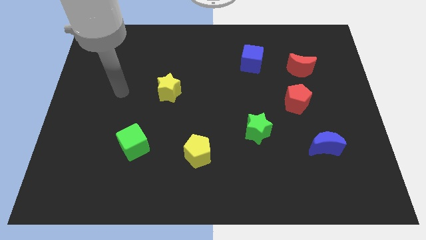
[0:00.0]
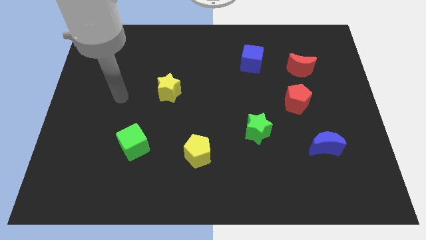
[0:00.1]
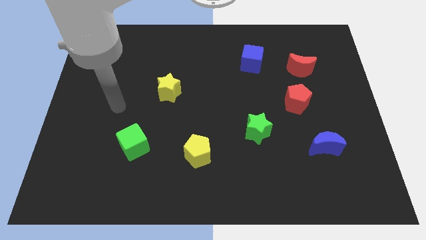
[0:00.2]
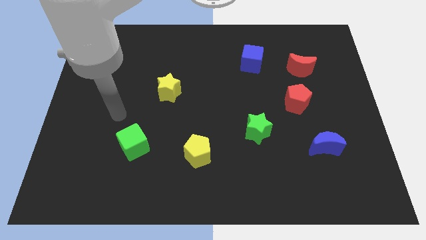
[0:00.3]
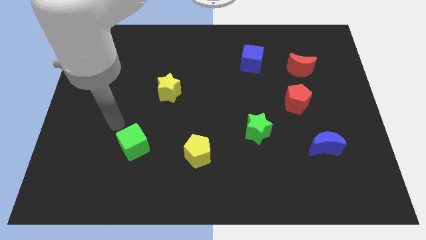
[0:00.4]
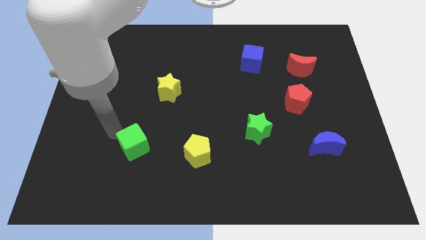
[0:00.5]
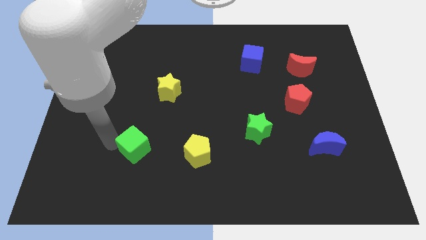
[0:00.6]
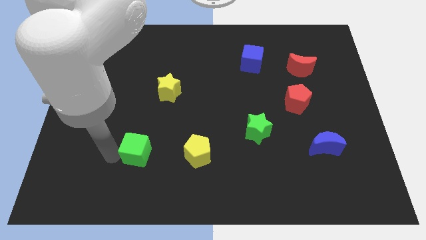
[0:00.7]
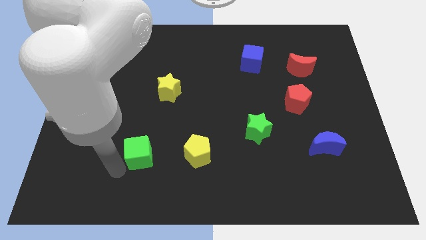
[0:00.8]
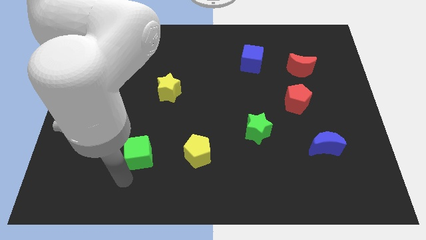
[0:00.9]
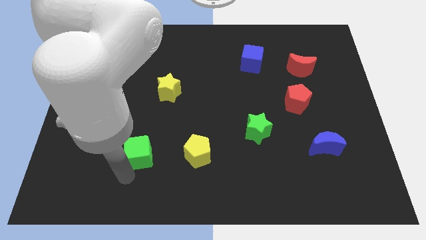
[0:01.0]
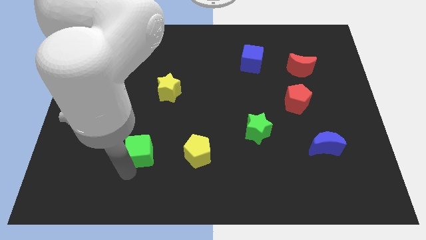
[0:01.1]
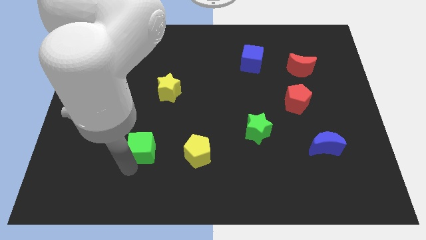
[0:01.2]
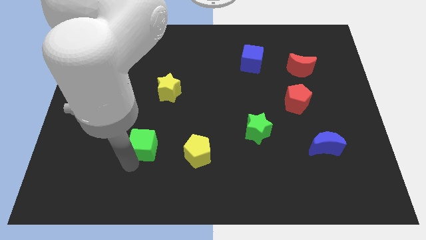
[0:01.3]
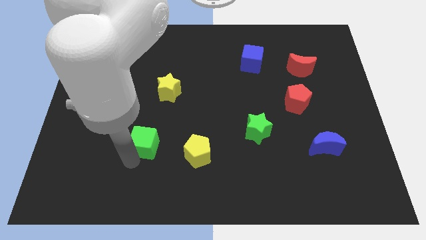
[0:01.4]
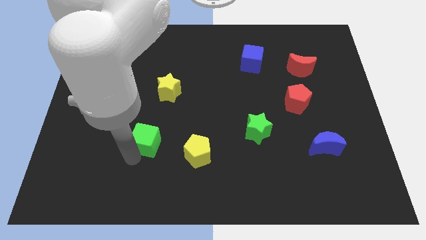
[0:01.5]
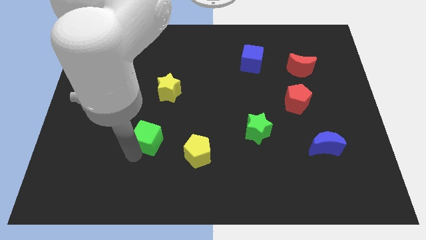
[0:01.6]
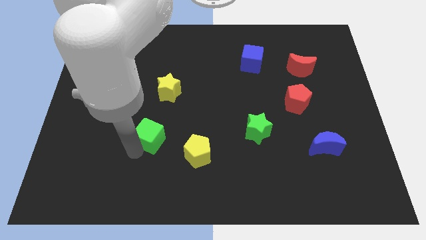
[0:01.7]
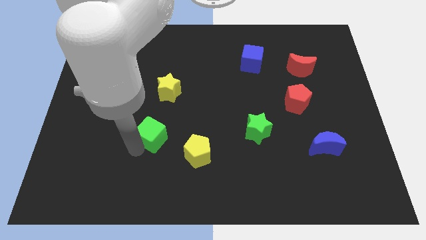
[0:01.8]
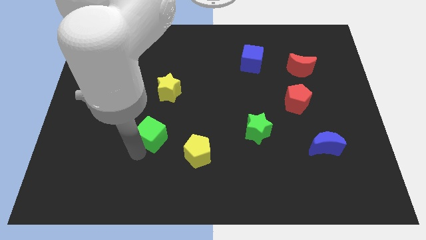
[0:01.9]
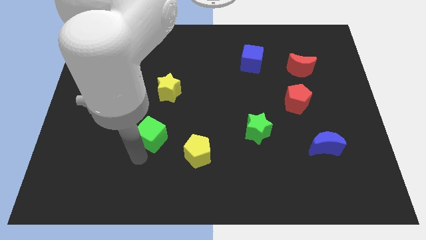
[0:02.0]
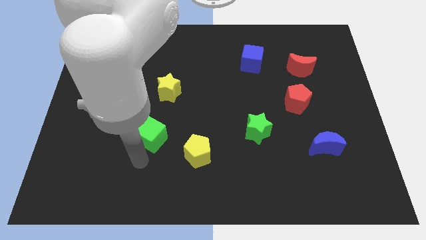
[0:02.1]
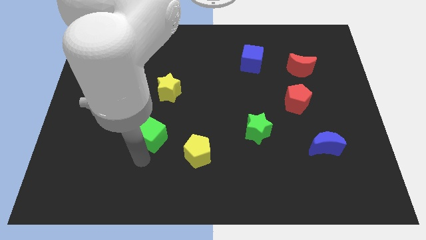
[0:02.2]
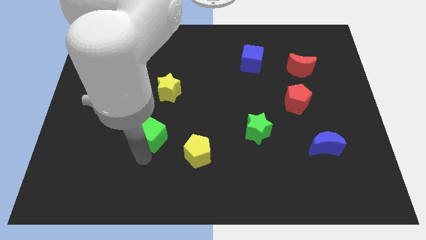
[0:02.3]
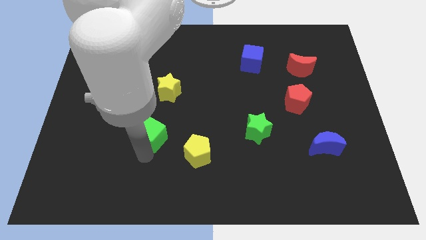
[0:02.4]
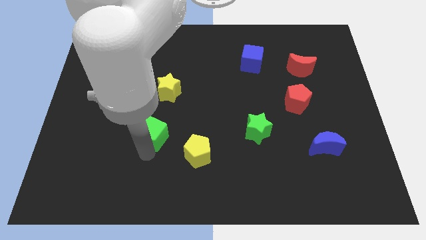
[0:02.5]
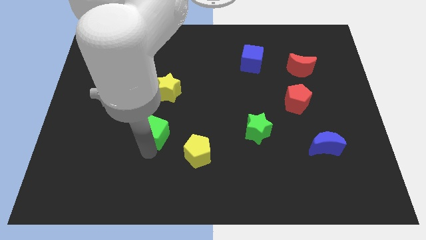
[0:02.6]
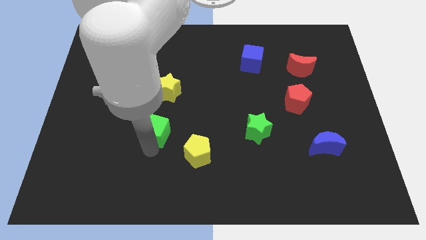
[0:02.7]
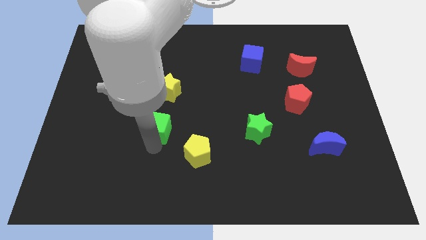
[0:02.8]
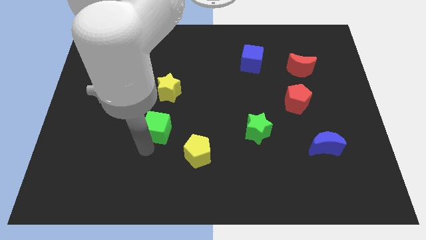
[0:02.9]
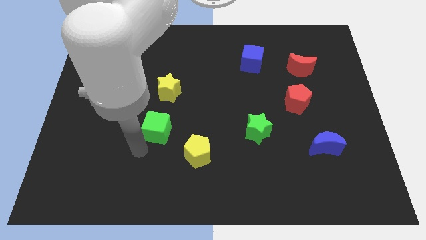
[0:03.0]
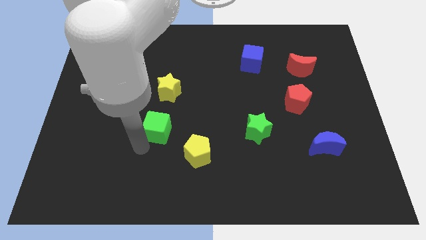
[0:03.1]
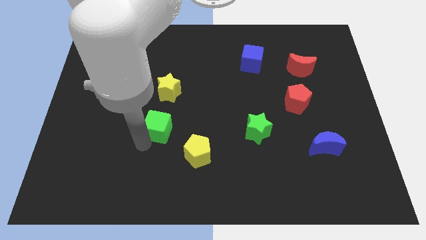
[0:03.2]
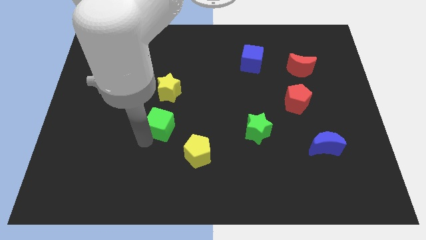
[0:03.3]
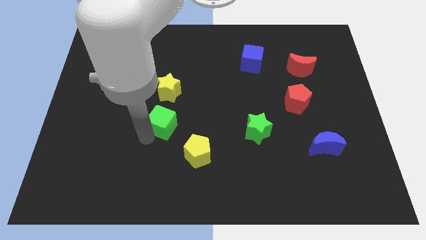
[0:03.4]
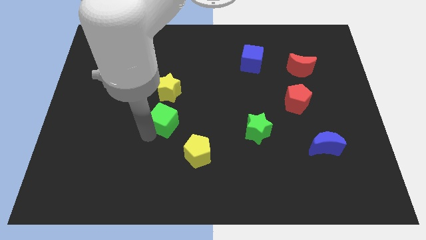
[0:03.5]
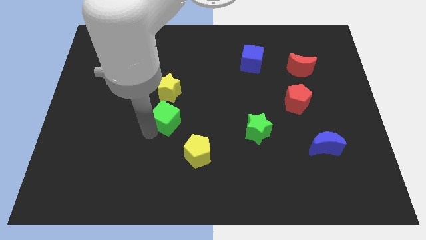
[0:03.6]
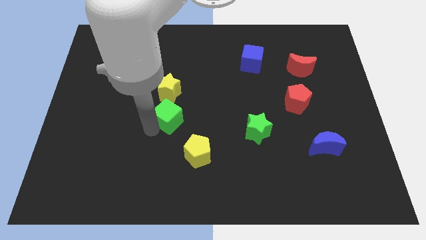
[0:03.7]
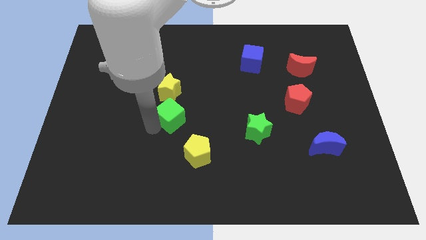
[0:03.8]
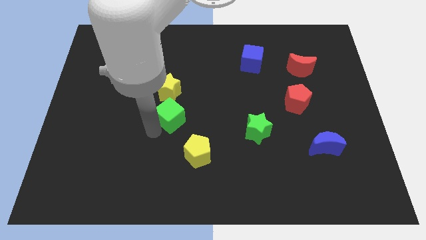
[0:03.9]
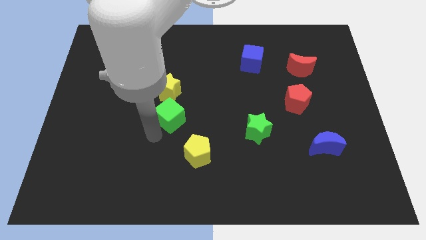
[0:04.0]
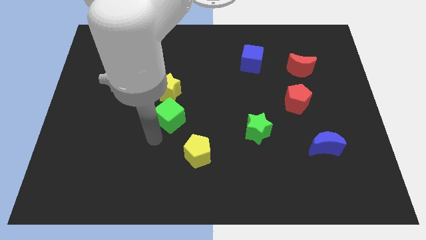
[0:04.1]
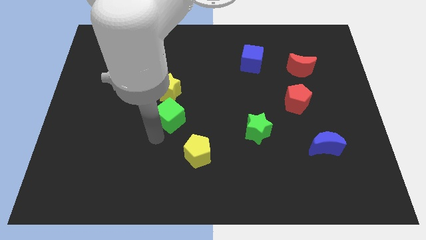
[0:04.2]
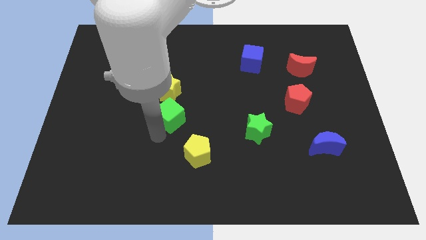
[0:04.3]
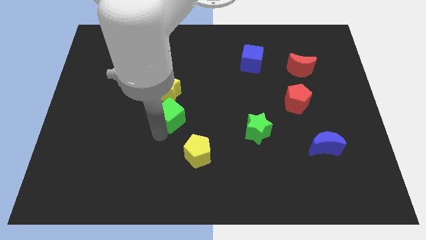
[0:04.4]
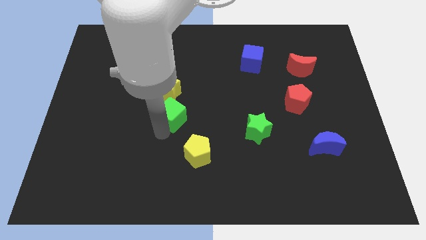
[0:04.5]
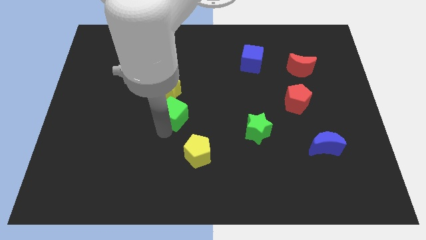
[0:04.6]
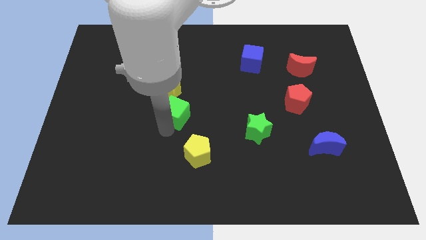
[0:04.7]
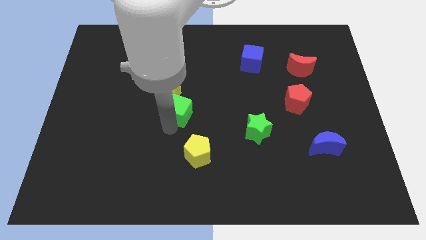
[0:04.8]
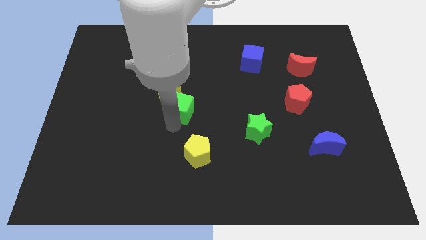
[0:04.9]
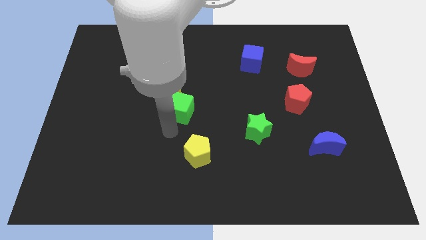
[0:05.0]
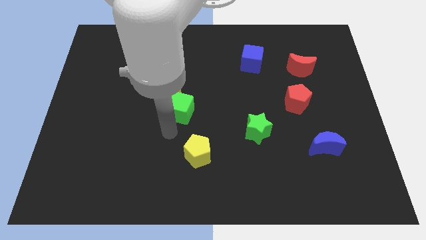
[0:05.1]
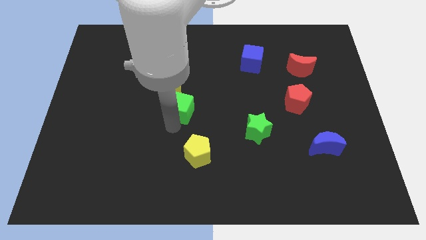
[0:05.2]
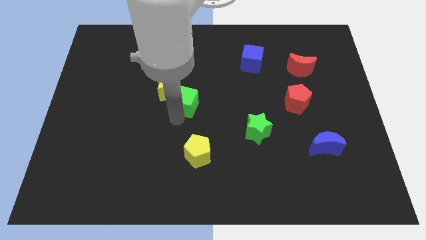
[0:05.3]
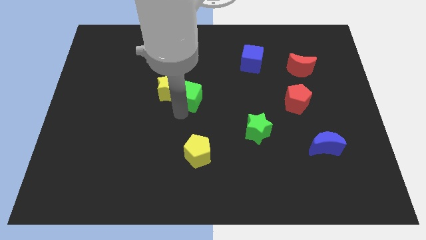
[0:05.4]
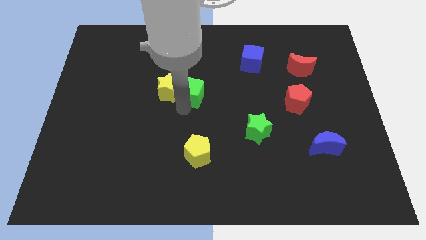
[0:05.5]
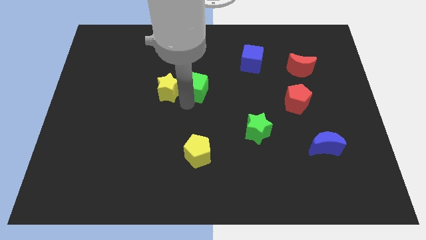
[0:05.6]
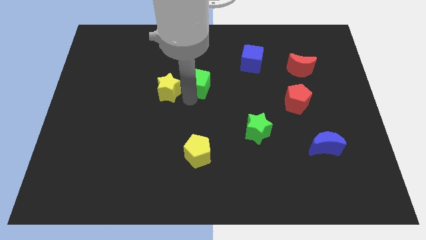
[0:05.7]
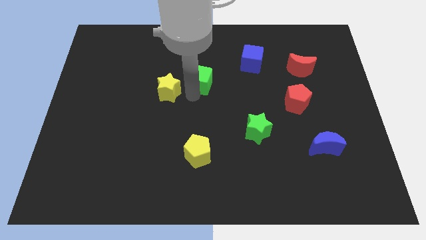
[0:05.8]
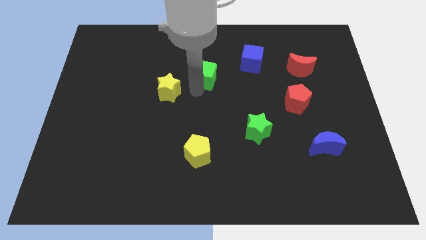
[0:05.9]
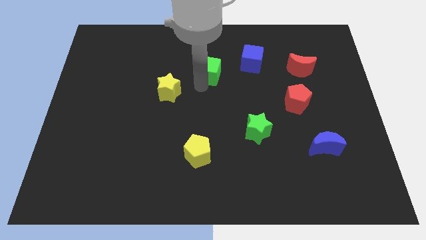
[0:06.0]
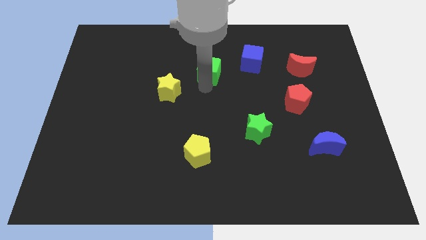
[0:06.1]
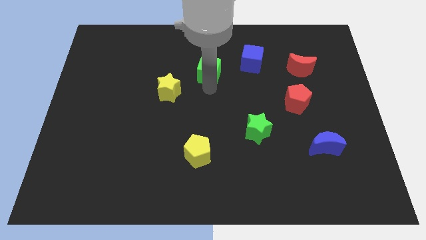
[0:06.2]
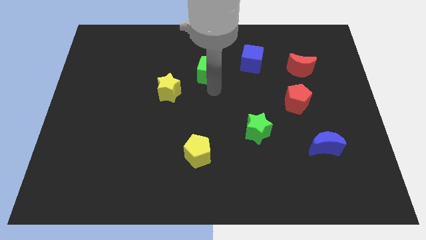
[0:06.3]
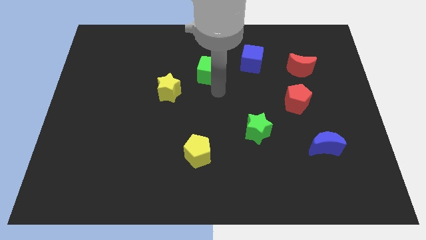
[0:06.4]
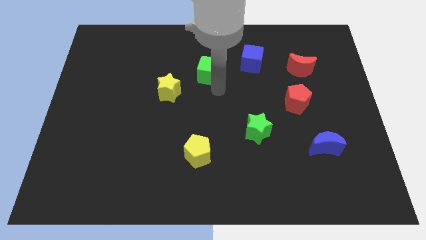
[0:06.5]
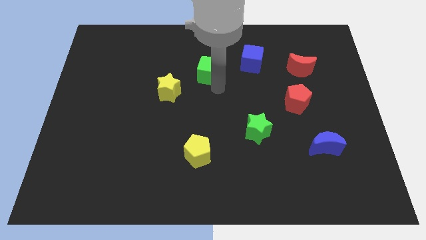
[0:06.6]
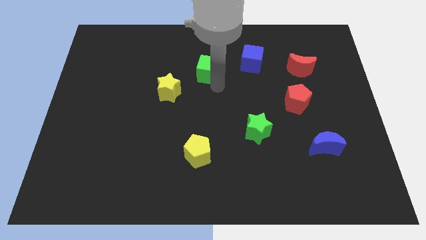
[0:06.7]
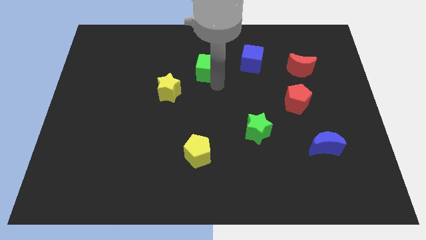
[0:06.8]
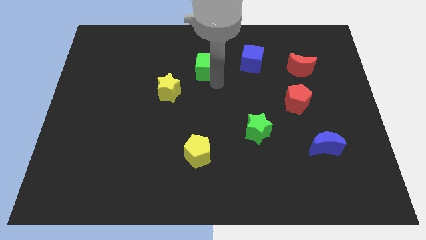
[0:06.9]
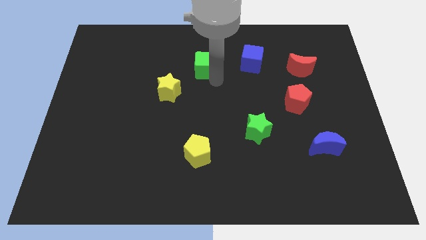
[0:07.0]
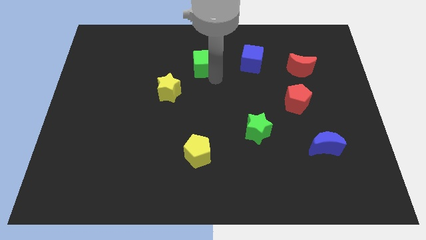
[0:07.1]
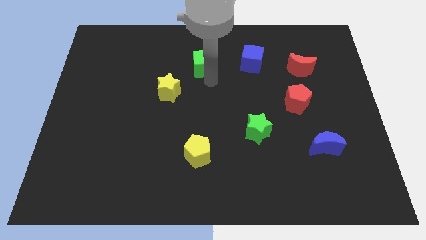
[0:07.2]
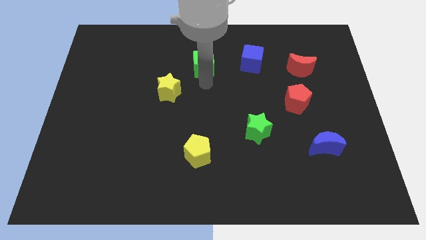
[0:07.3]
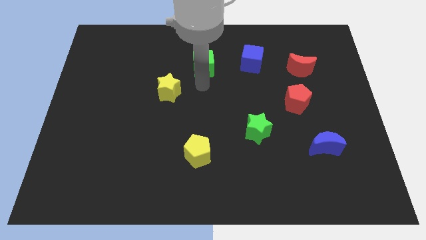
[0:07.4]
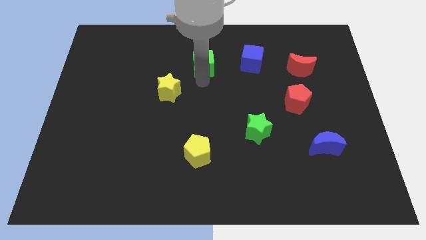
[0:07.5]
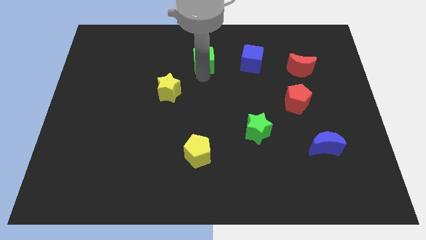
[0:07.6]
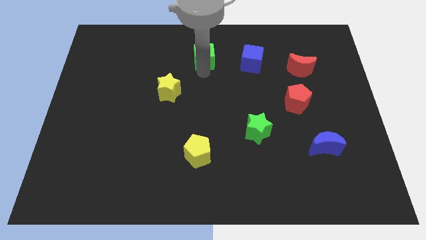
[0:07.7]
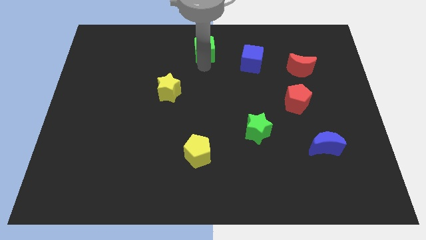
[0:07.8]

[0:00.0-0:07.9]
move the green cube to the top
